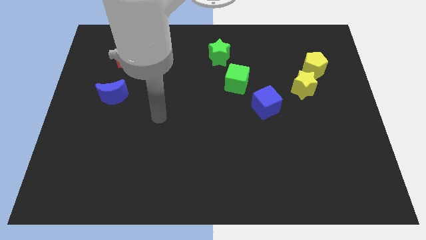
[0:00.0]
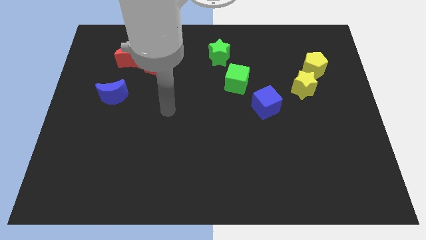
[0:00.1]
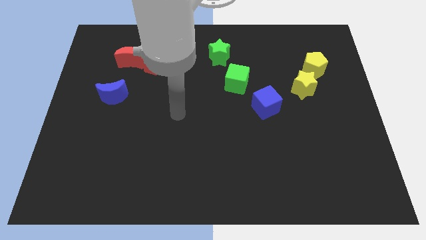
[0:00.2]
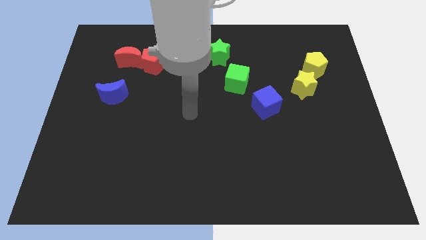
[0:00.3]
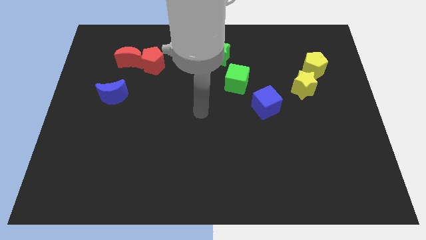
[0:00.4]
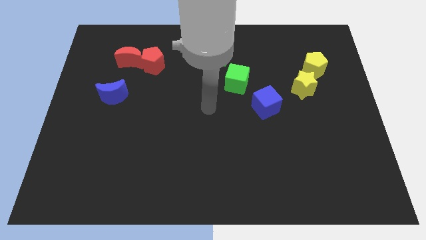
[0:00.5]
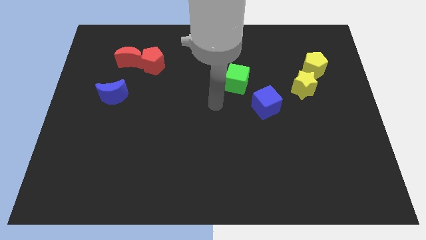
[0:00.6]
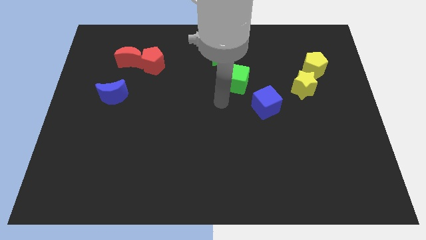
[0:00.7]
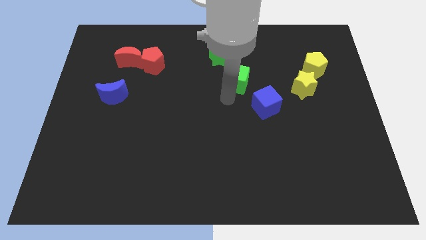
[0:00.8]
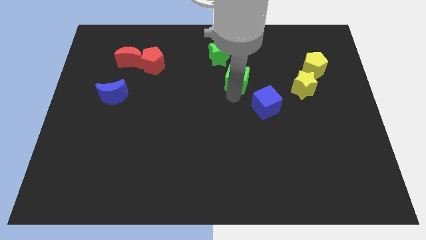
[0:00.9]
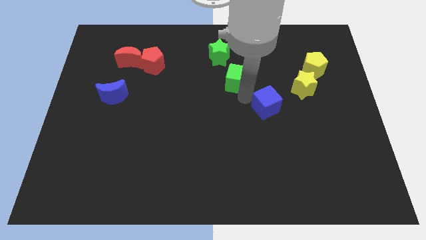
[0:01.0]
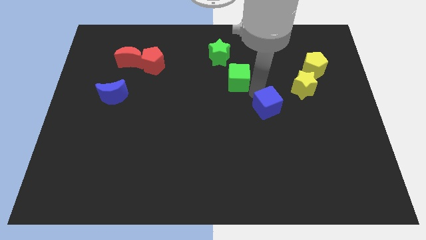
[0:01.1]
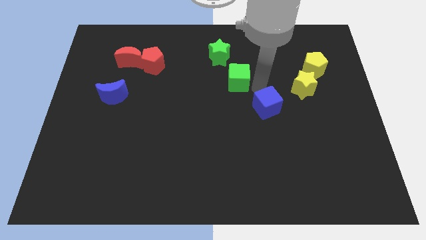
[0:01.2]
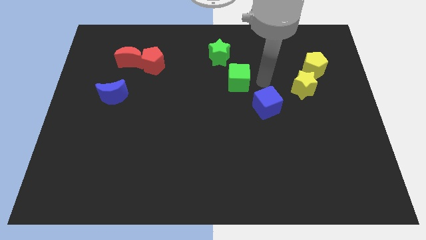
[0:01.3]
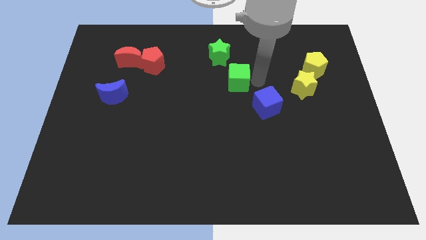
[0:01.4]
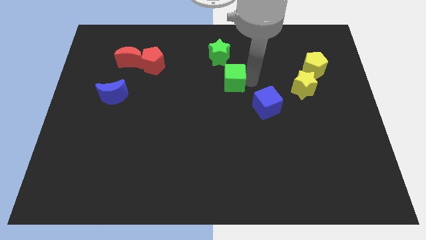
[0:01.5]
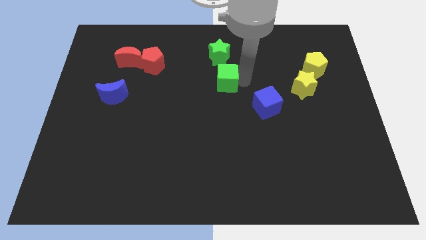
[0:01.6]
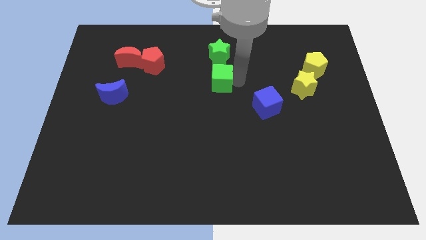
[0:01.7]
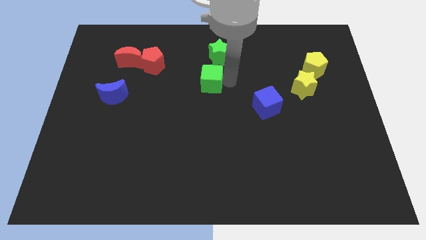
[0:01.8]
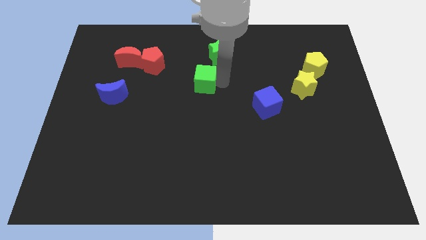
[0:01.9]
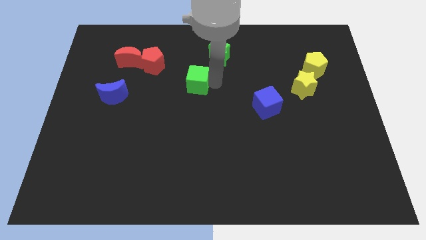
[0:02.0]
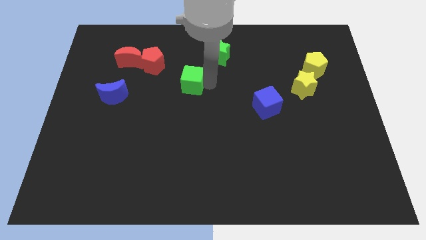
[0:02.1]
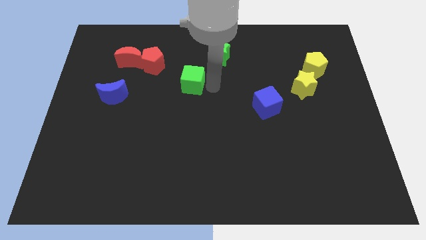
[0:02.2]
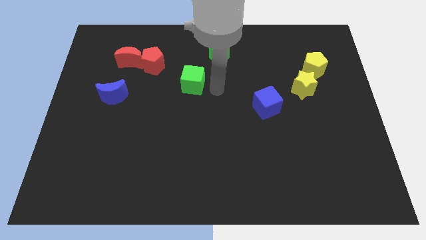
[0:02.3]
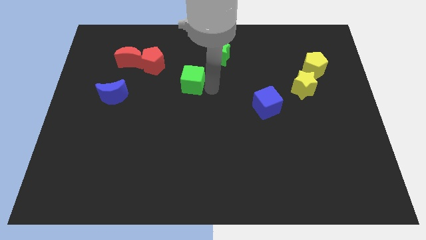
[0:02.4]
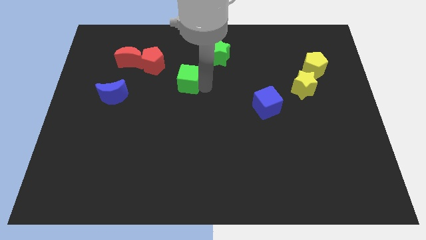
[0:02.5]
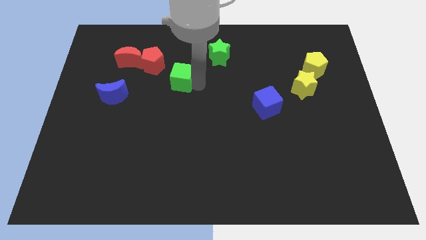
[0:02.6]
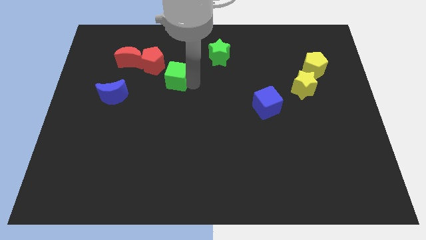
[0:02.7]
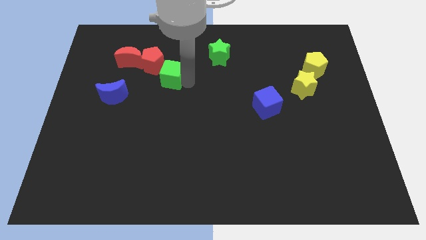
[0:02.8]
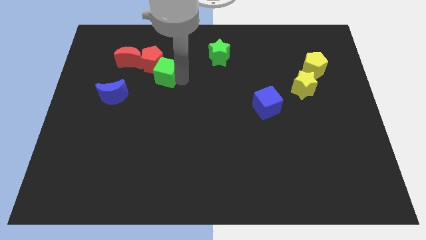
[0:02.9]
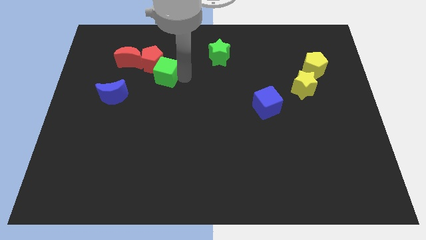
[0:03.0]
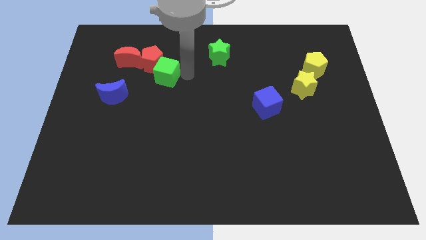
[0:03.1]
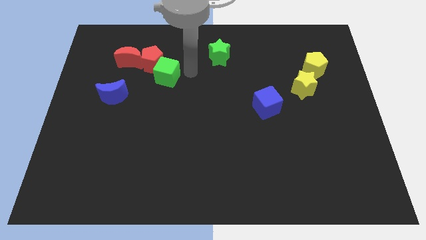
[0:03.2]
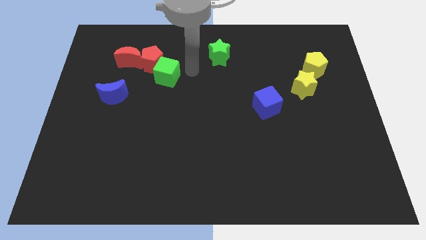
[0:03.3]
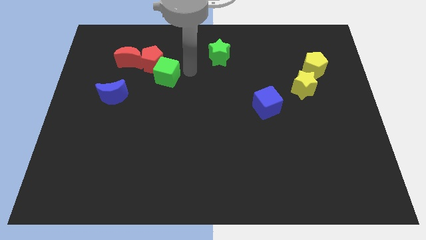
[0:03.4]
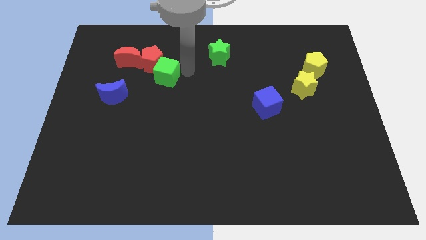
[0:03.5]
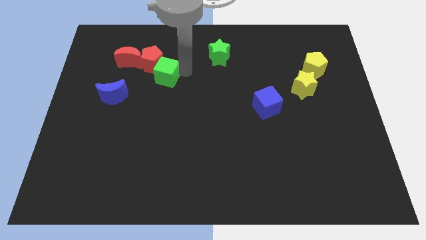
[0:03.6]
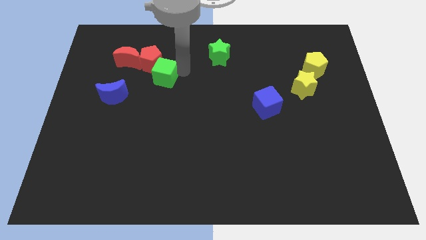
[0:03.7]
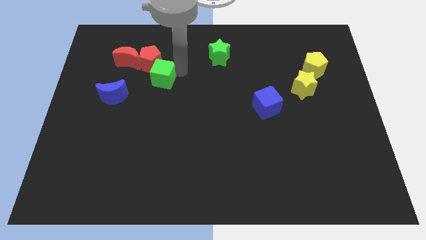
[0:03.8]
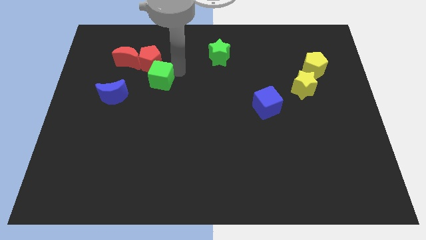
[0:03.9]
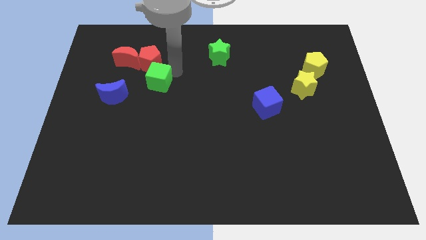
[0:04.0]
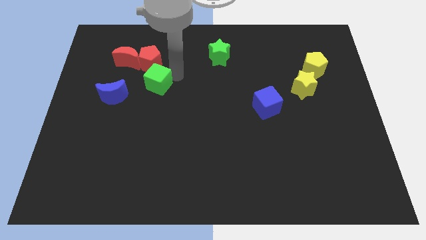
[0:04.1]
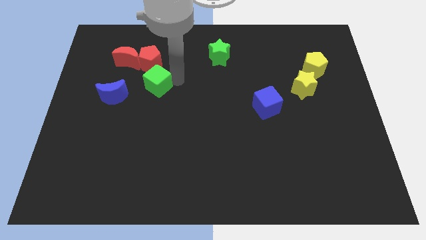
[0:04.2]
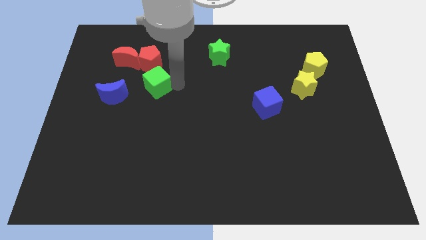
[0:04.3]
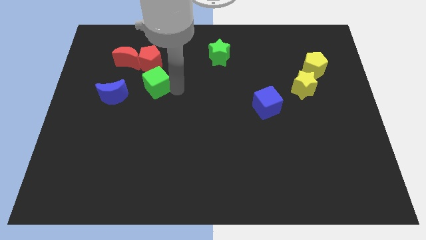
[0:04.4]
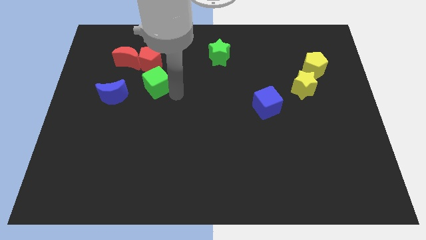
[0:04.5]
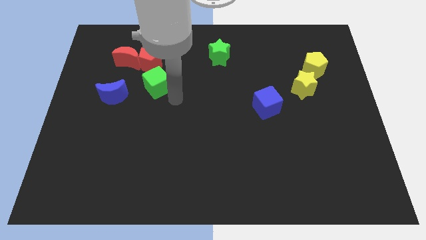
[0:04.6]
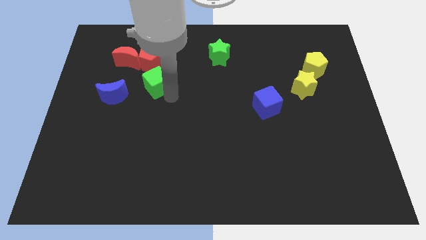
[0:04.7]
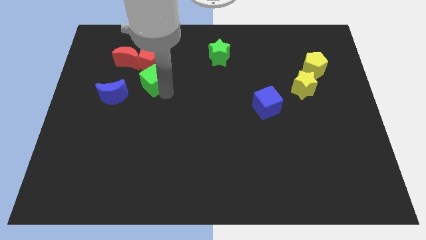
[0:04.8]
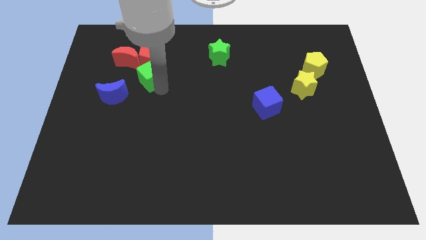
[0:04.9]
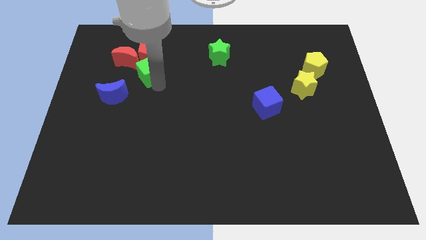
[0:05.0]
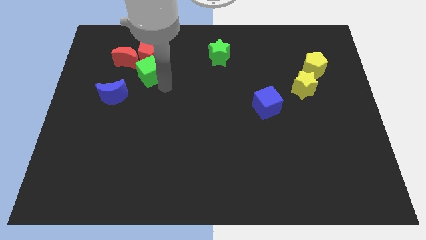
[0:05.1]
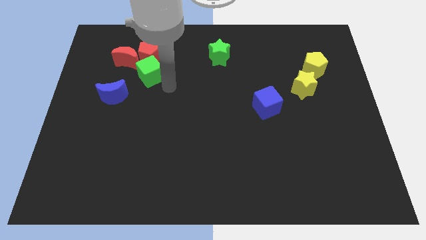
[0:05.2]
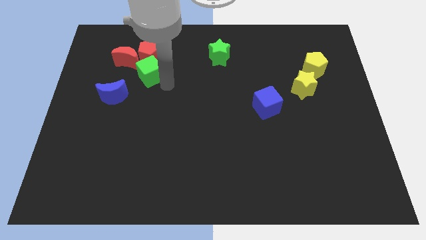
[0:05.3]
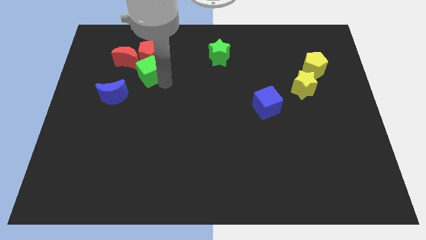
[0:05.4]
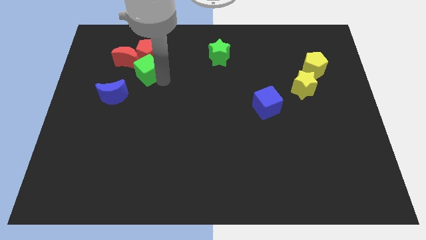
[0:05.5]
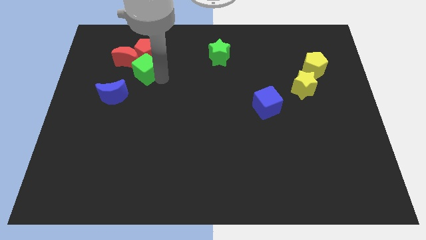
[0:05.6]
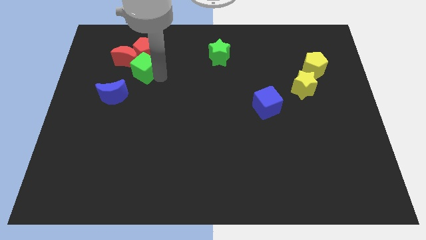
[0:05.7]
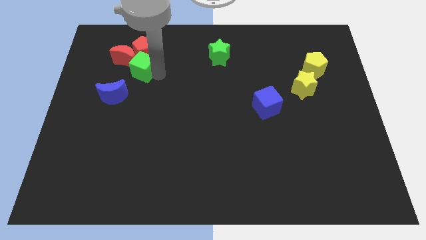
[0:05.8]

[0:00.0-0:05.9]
slide the green cube next to the red moon

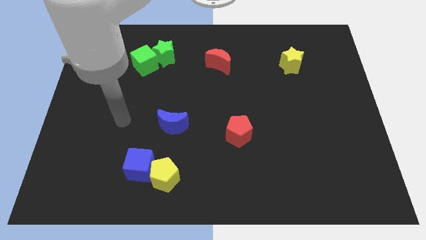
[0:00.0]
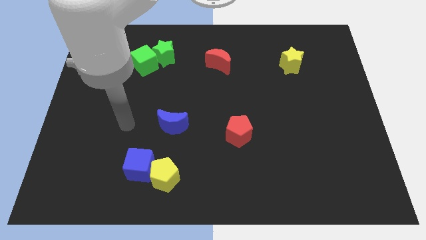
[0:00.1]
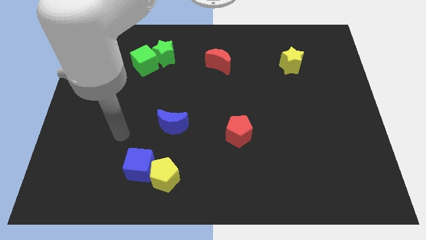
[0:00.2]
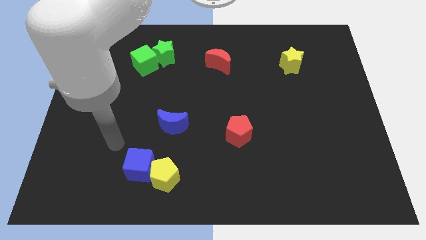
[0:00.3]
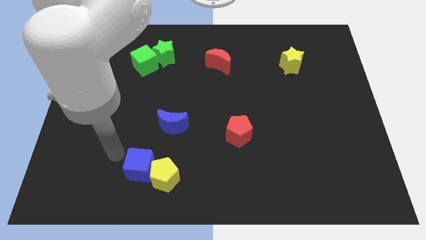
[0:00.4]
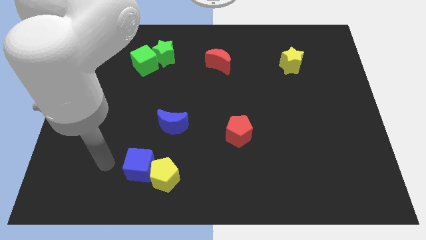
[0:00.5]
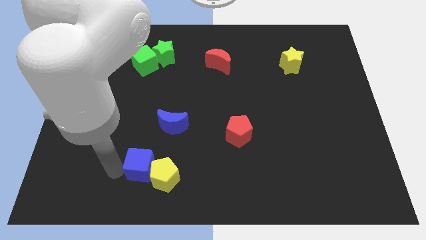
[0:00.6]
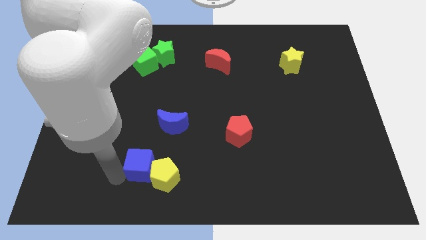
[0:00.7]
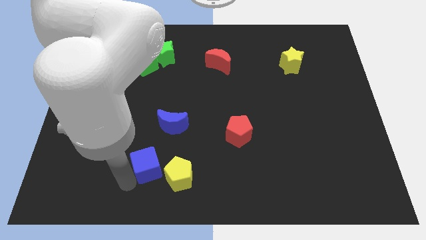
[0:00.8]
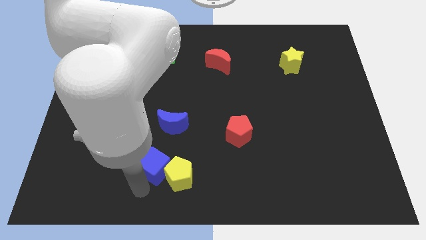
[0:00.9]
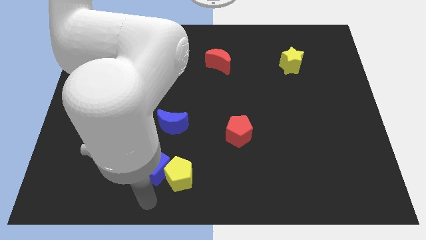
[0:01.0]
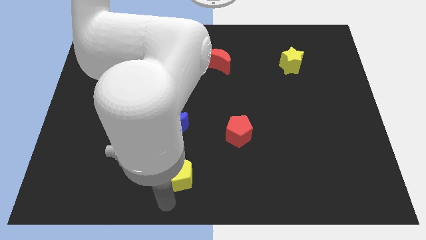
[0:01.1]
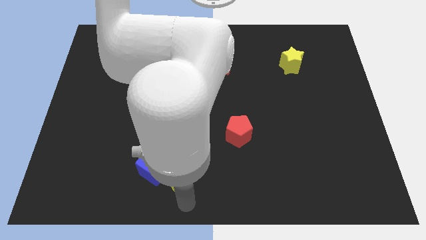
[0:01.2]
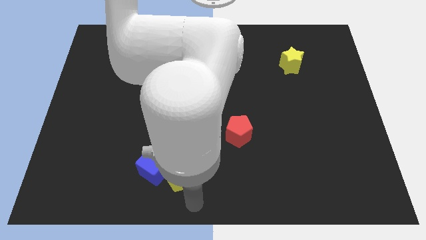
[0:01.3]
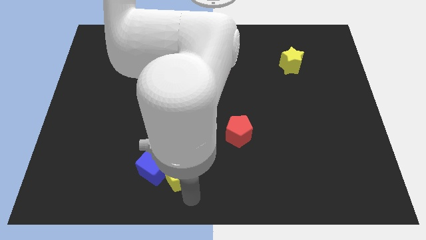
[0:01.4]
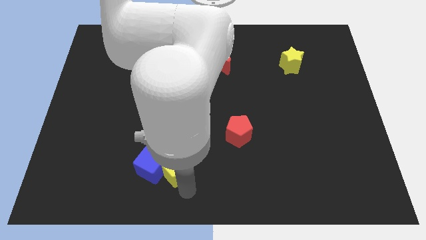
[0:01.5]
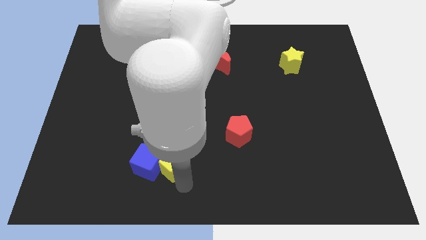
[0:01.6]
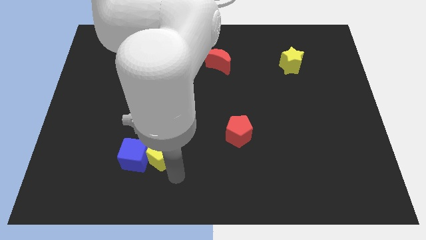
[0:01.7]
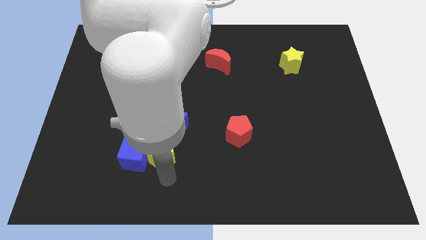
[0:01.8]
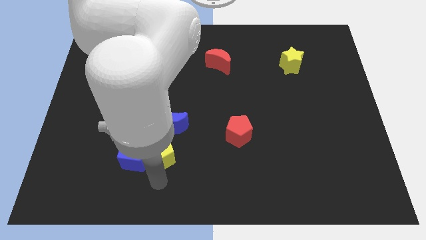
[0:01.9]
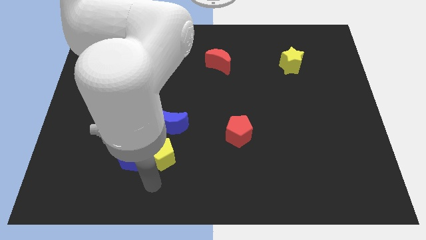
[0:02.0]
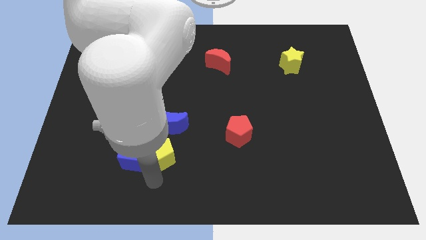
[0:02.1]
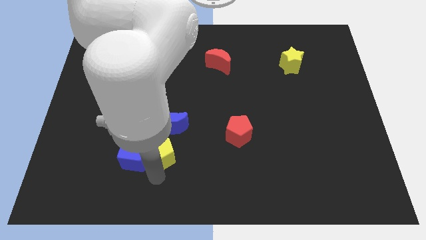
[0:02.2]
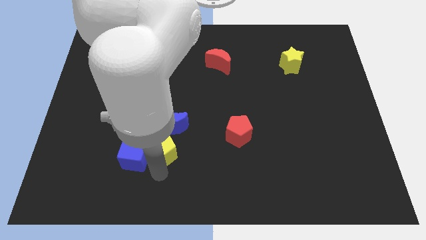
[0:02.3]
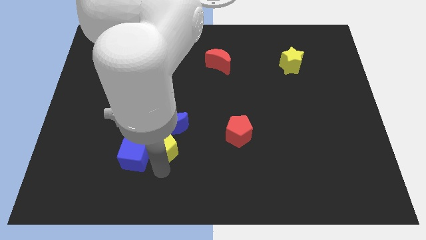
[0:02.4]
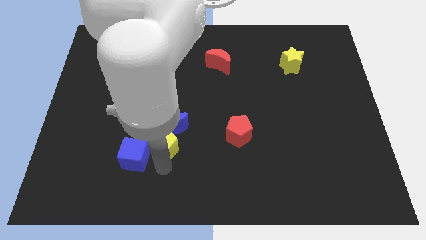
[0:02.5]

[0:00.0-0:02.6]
move the yellow pentagon next to the blue moon
